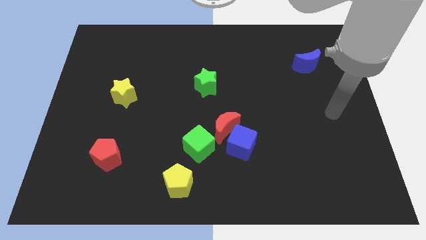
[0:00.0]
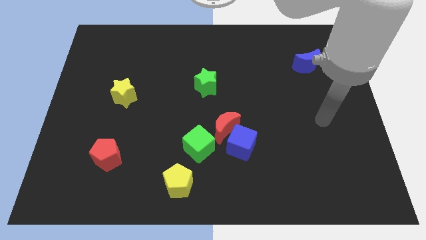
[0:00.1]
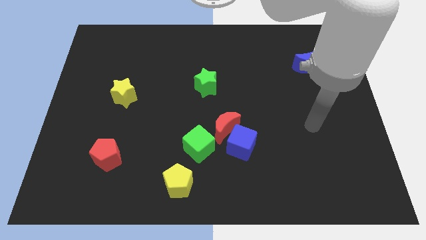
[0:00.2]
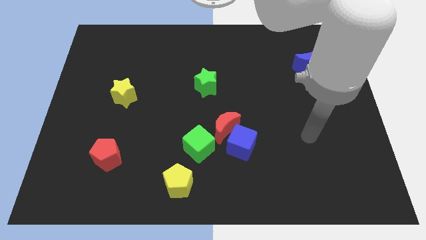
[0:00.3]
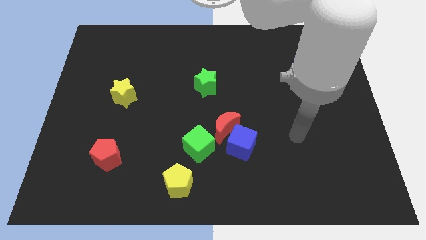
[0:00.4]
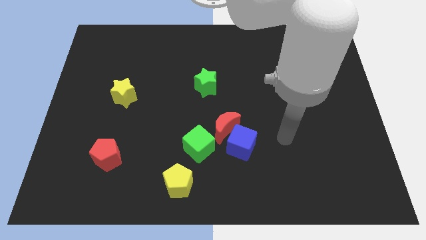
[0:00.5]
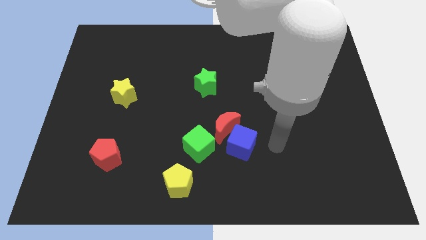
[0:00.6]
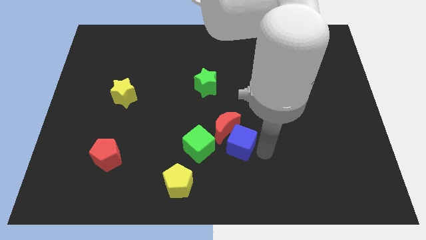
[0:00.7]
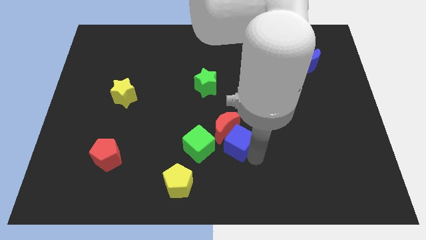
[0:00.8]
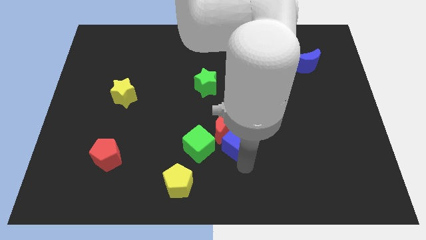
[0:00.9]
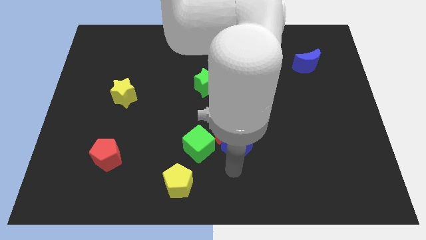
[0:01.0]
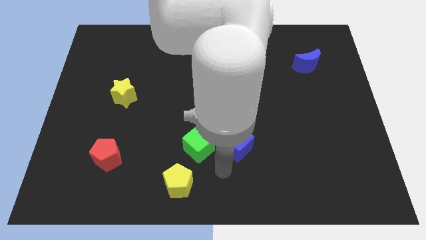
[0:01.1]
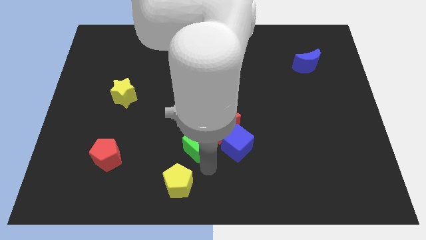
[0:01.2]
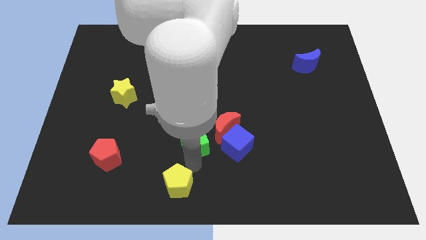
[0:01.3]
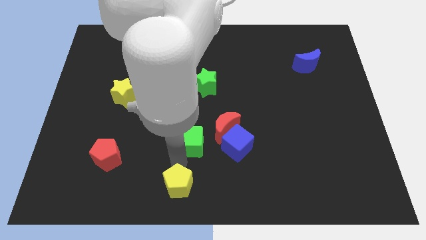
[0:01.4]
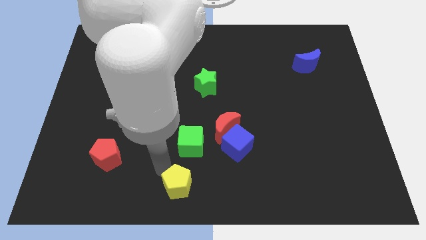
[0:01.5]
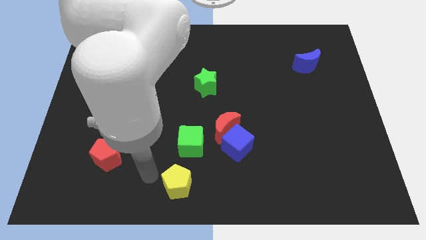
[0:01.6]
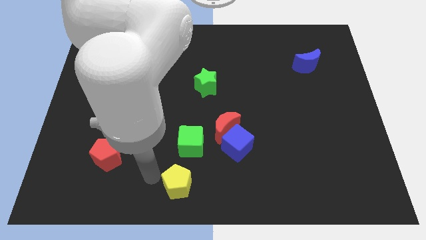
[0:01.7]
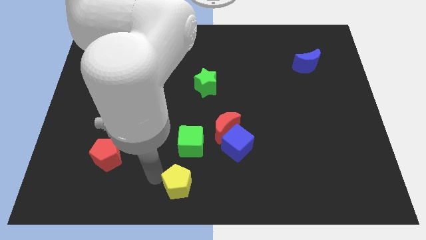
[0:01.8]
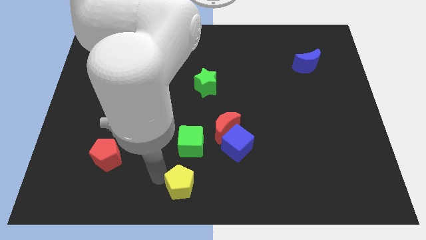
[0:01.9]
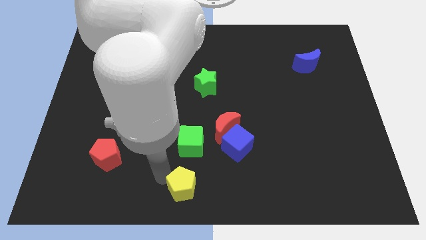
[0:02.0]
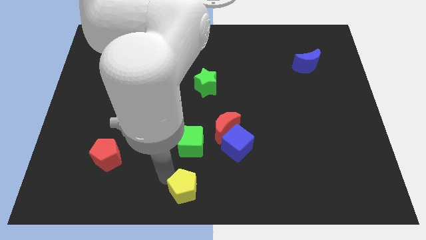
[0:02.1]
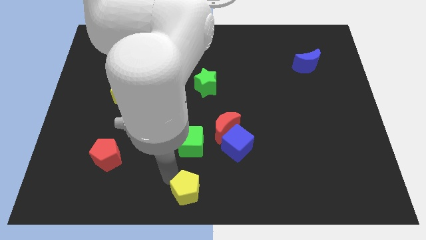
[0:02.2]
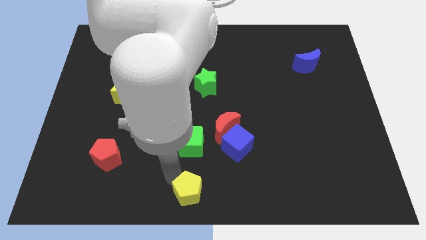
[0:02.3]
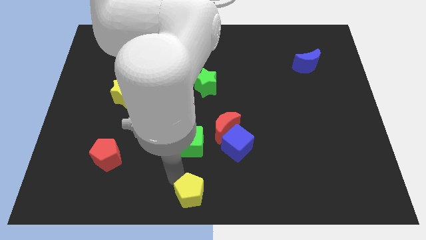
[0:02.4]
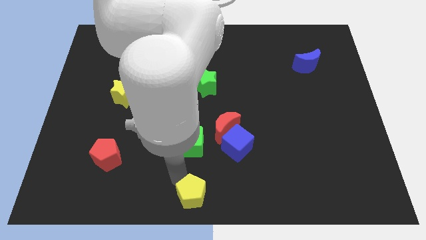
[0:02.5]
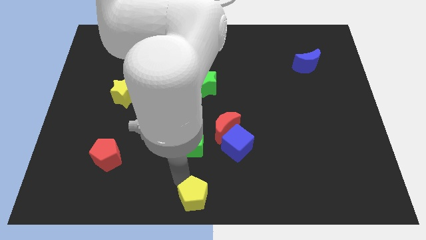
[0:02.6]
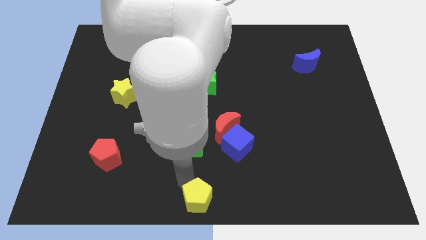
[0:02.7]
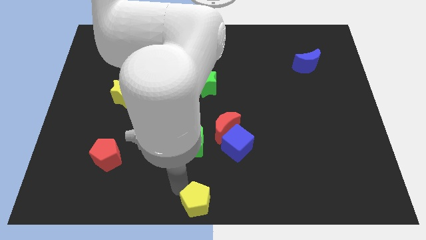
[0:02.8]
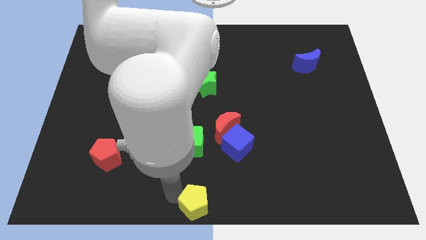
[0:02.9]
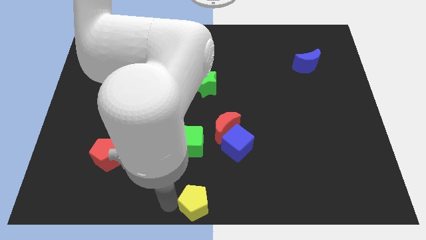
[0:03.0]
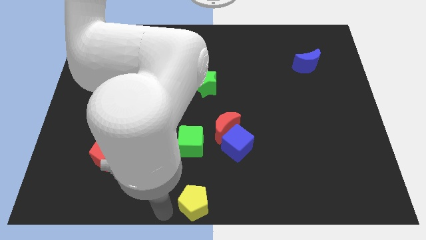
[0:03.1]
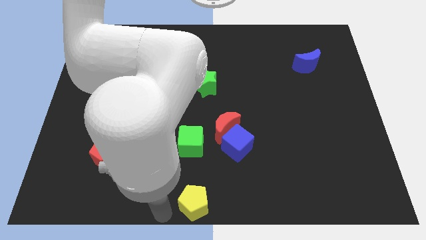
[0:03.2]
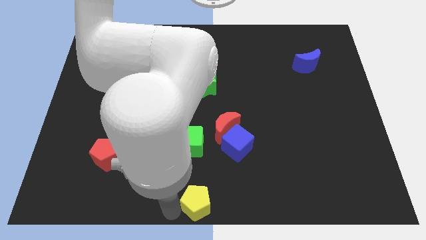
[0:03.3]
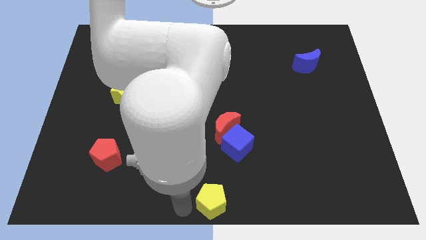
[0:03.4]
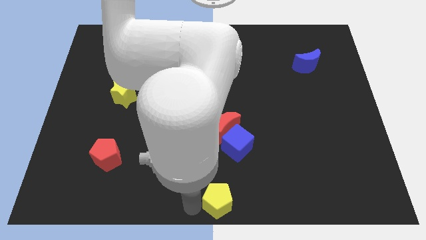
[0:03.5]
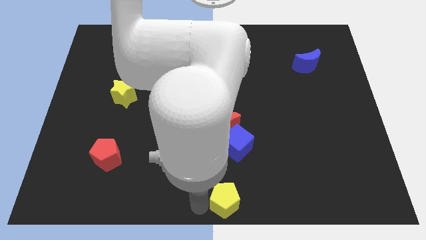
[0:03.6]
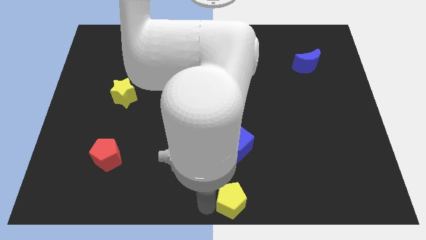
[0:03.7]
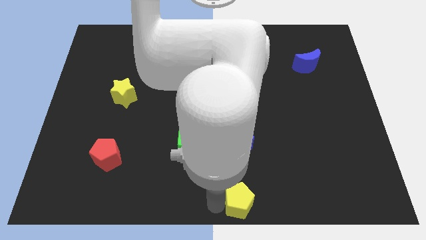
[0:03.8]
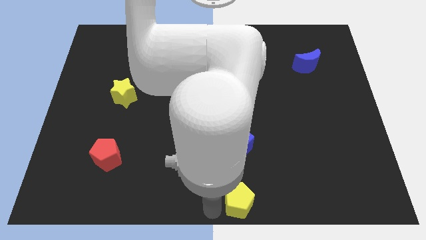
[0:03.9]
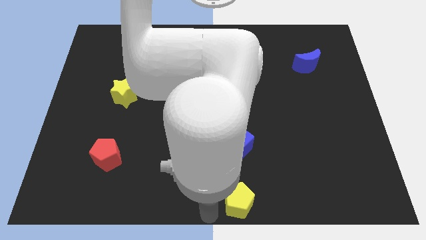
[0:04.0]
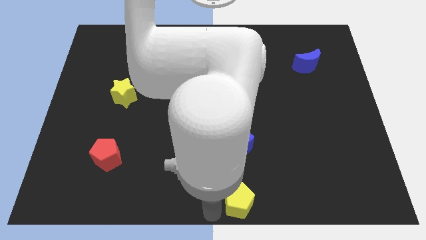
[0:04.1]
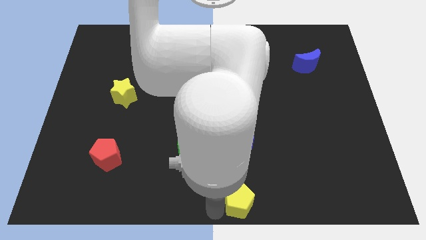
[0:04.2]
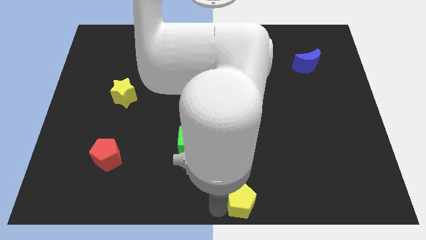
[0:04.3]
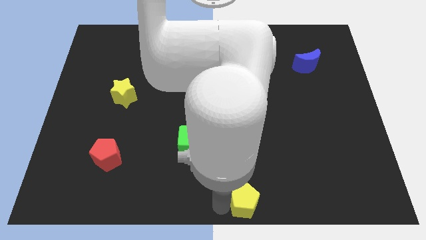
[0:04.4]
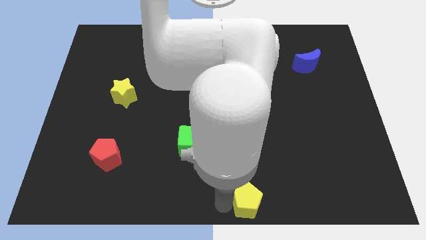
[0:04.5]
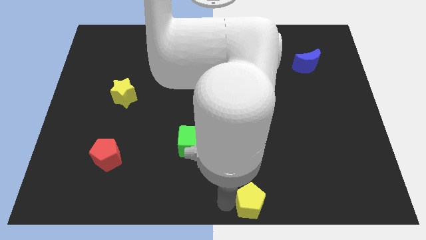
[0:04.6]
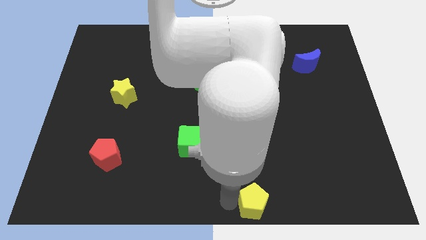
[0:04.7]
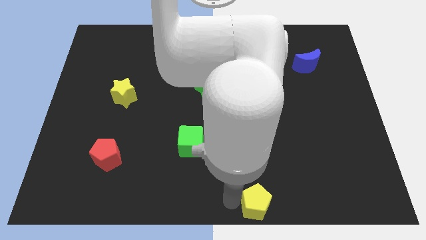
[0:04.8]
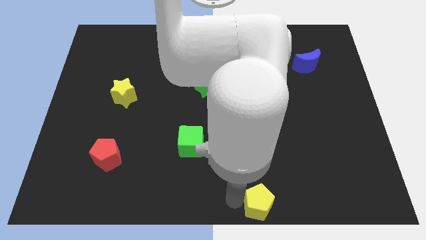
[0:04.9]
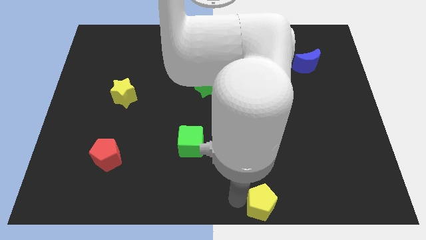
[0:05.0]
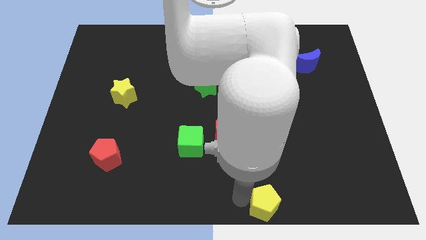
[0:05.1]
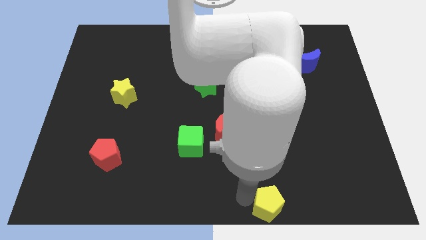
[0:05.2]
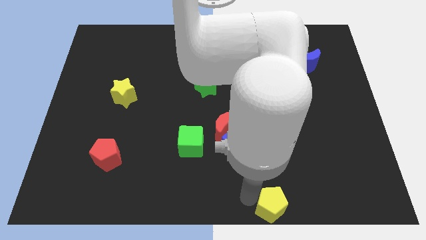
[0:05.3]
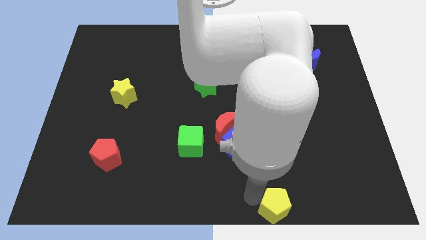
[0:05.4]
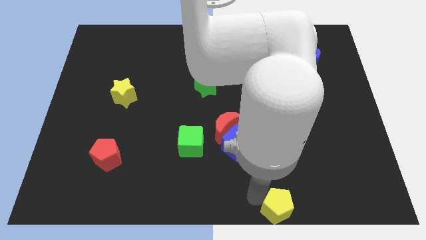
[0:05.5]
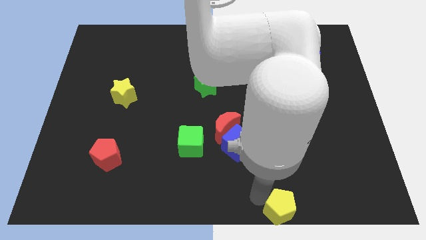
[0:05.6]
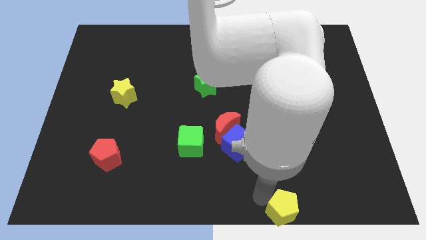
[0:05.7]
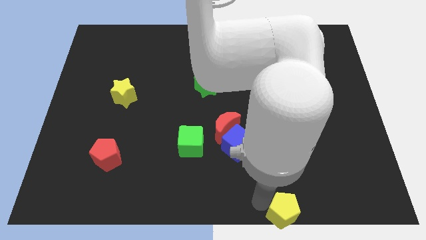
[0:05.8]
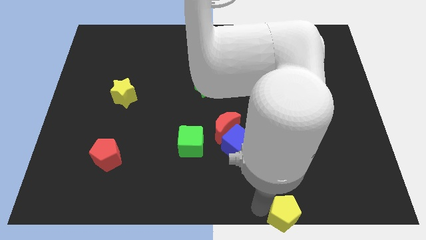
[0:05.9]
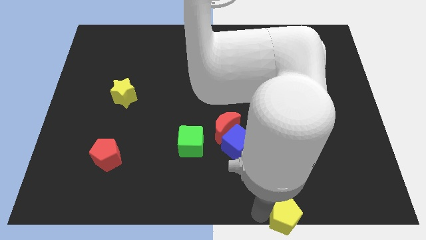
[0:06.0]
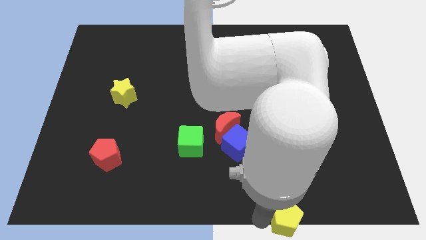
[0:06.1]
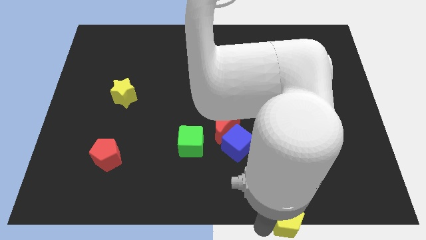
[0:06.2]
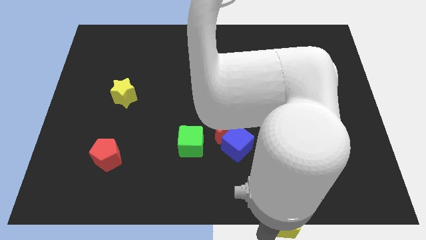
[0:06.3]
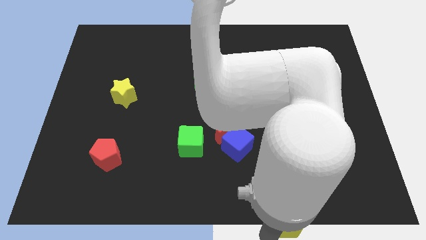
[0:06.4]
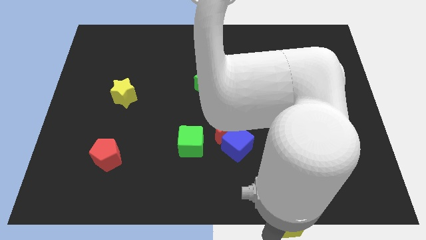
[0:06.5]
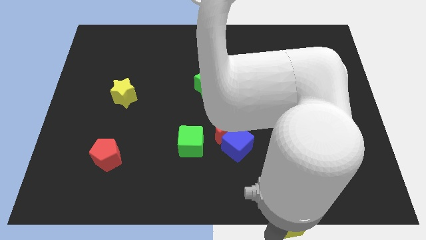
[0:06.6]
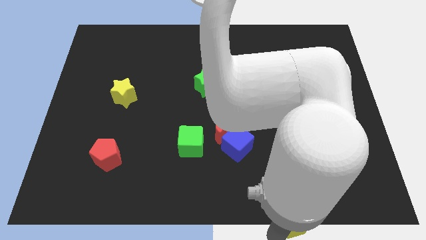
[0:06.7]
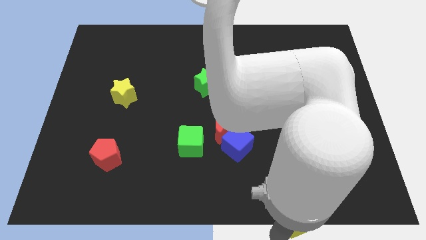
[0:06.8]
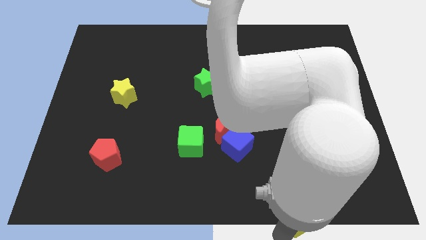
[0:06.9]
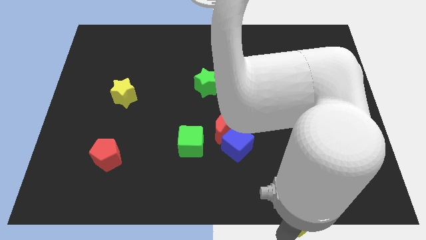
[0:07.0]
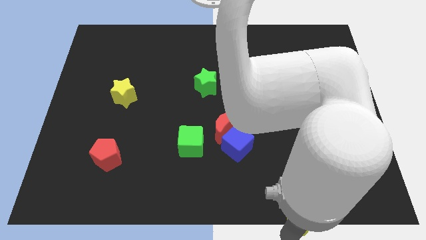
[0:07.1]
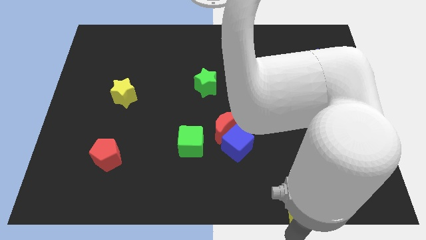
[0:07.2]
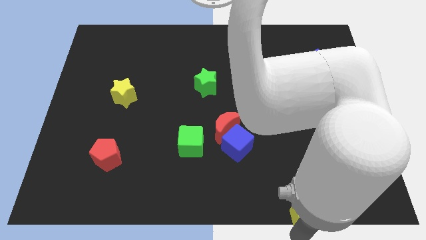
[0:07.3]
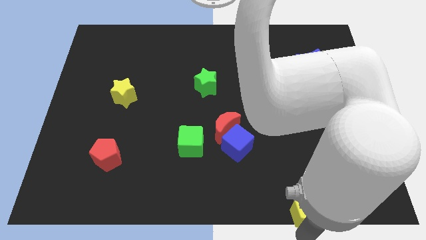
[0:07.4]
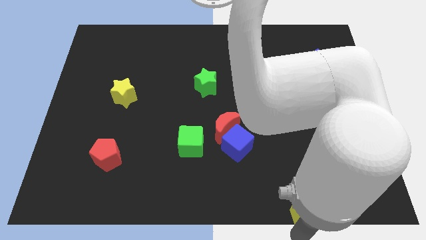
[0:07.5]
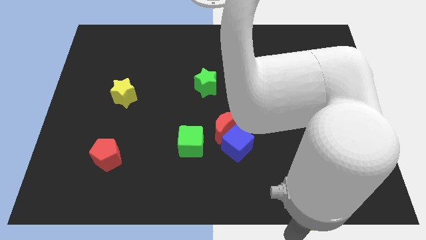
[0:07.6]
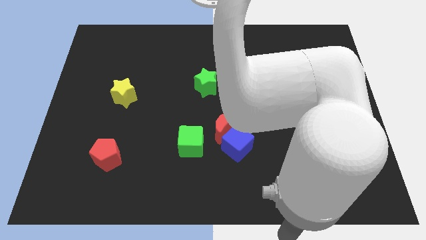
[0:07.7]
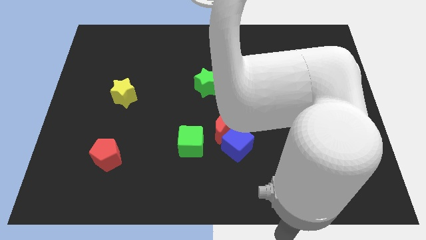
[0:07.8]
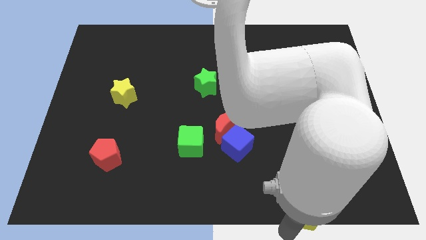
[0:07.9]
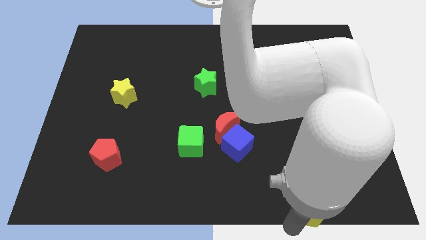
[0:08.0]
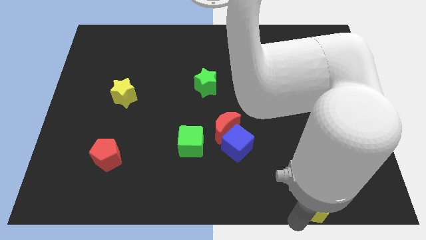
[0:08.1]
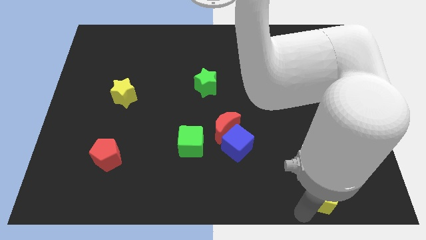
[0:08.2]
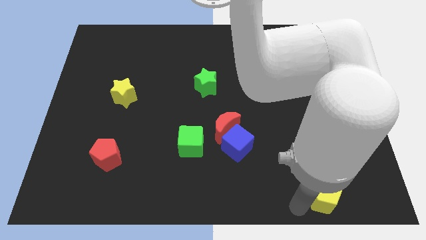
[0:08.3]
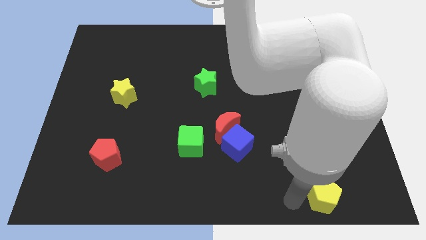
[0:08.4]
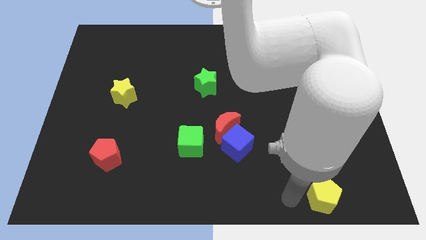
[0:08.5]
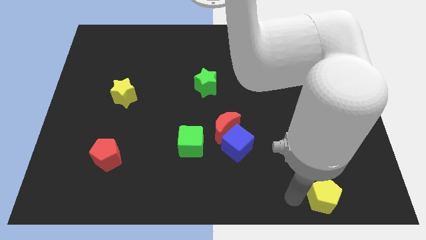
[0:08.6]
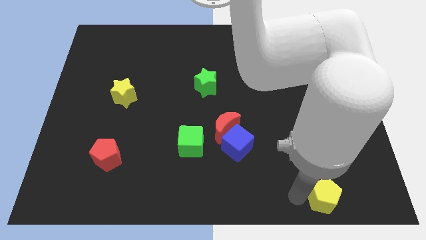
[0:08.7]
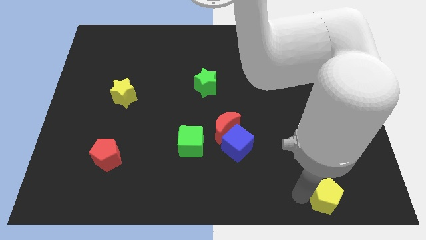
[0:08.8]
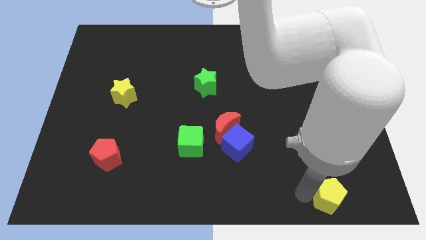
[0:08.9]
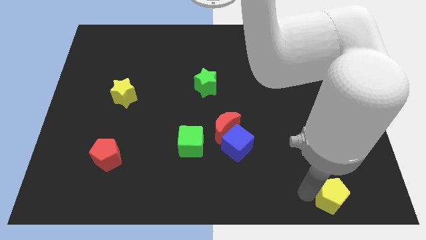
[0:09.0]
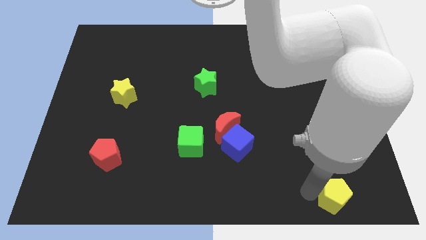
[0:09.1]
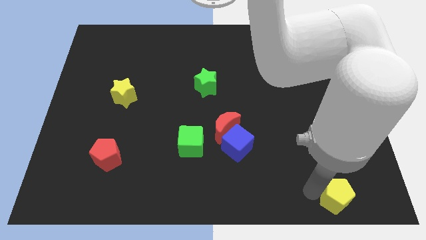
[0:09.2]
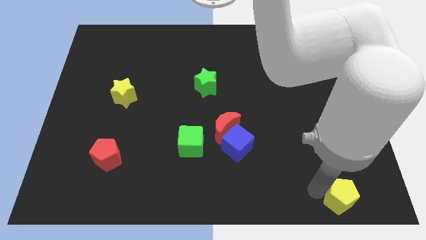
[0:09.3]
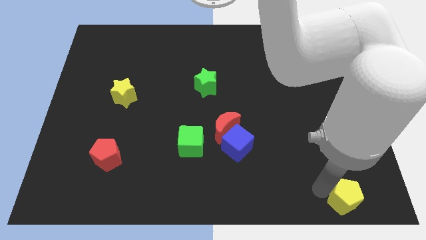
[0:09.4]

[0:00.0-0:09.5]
push the yellow pentagon to the bottom right corner
